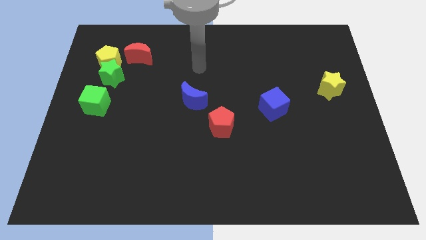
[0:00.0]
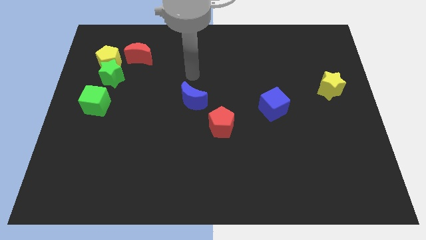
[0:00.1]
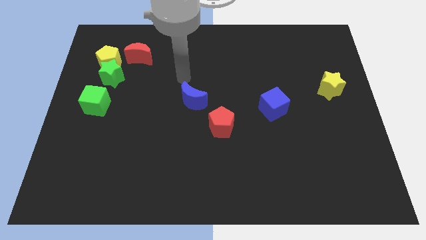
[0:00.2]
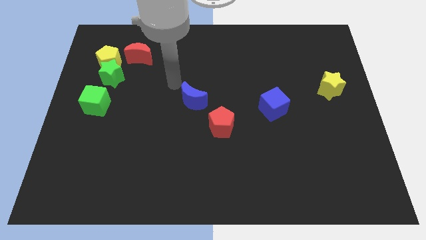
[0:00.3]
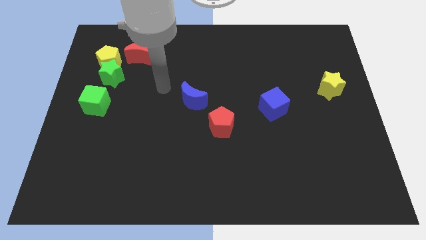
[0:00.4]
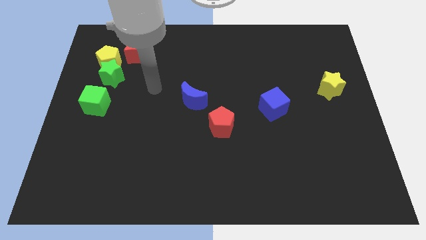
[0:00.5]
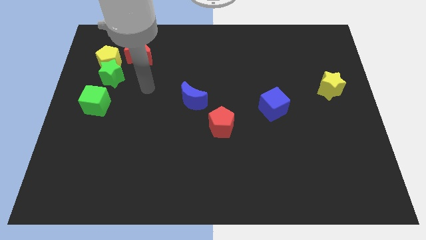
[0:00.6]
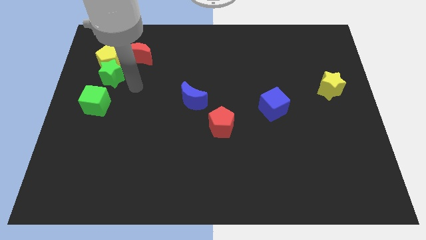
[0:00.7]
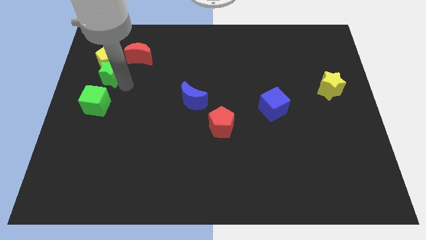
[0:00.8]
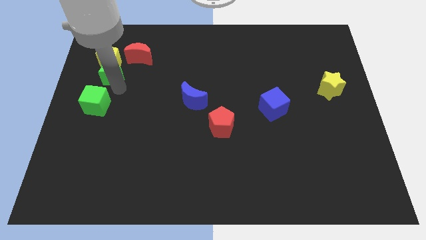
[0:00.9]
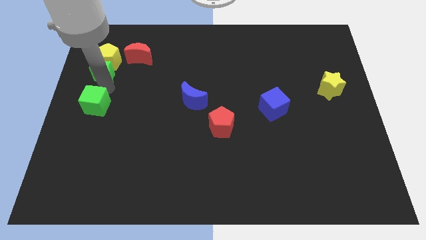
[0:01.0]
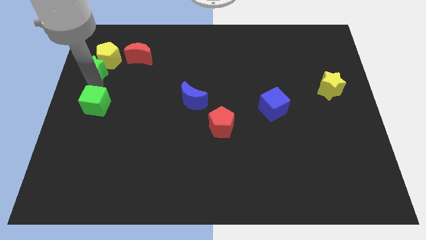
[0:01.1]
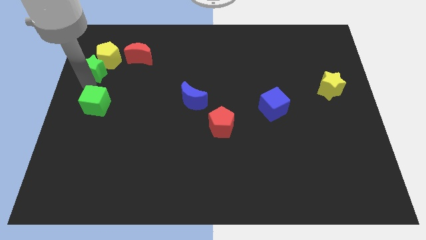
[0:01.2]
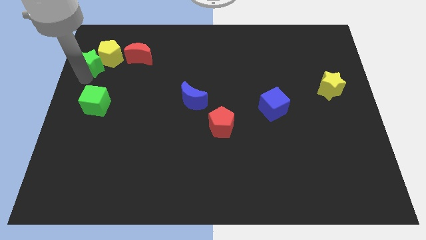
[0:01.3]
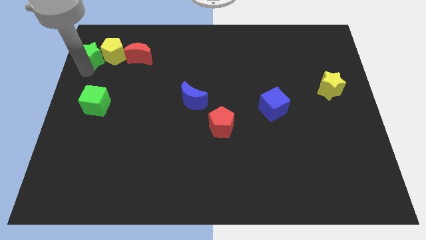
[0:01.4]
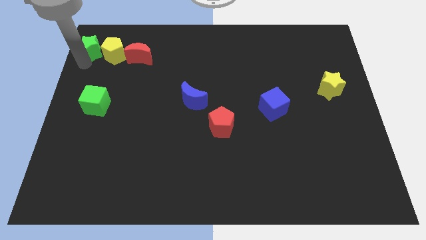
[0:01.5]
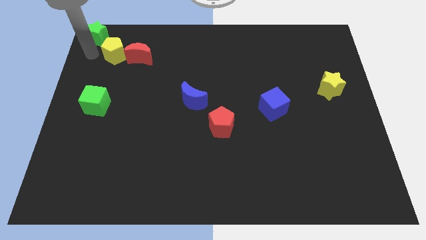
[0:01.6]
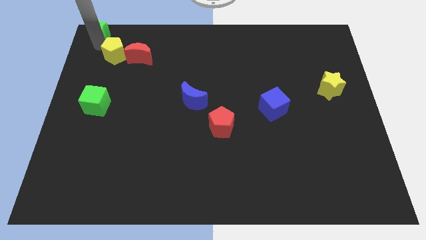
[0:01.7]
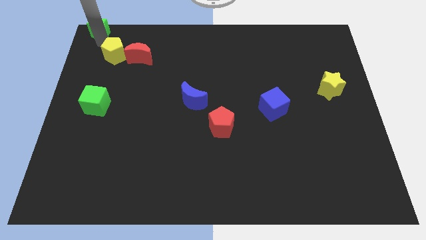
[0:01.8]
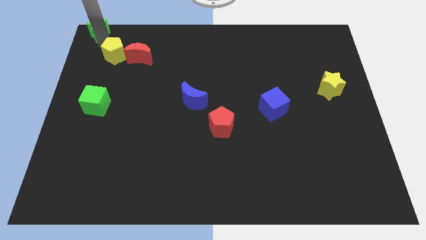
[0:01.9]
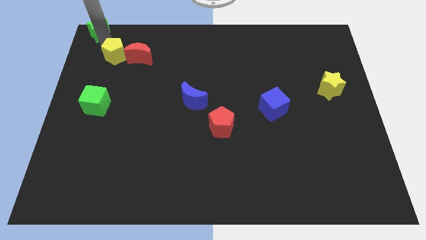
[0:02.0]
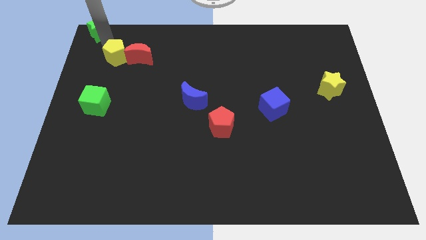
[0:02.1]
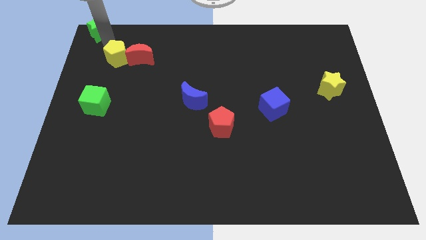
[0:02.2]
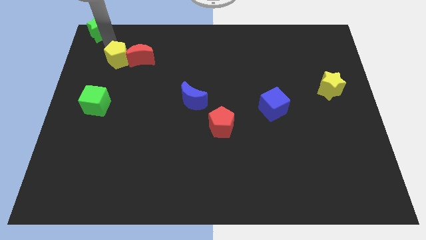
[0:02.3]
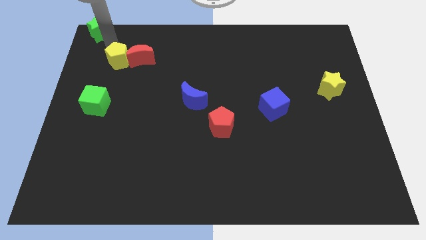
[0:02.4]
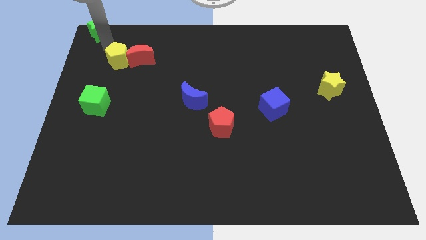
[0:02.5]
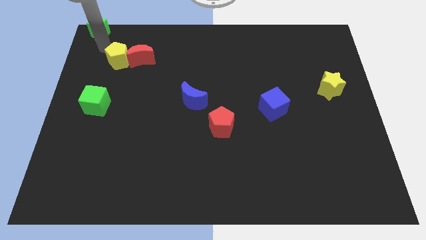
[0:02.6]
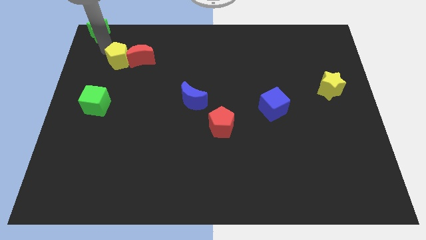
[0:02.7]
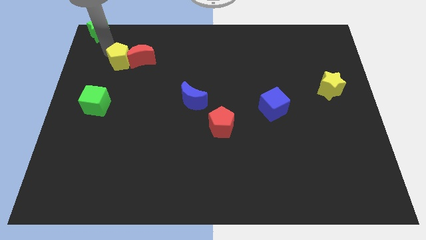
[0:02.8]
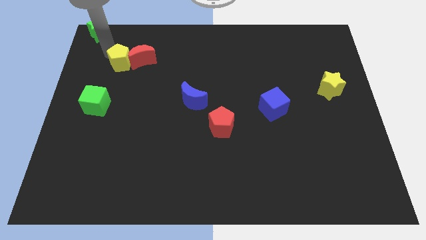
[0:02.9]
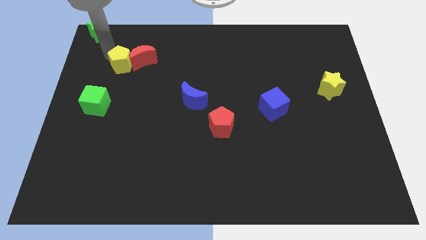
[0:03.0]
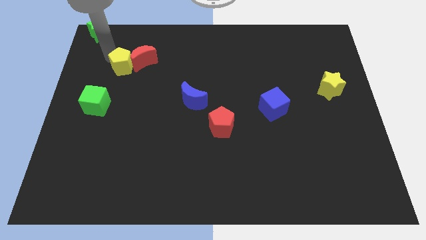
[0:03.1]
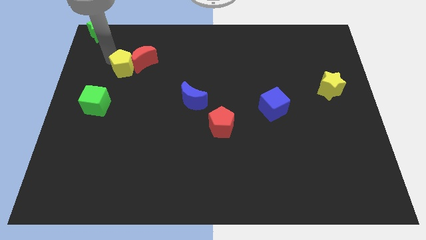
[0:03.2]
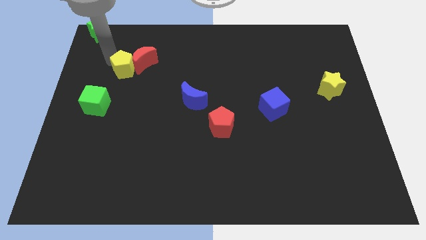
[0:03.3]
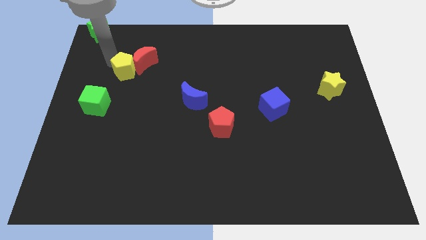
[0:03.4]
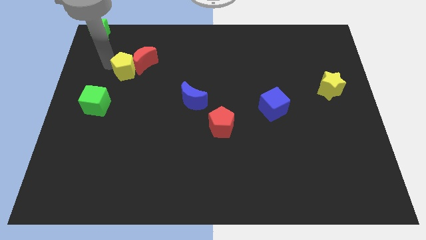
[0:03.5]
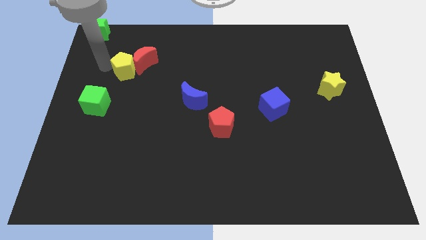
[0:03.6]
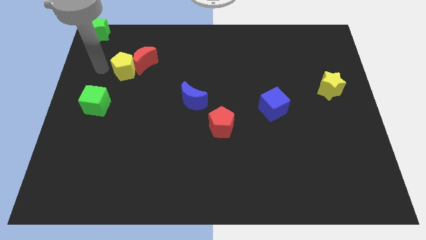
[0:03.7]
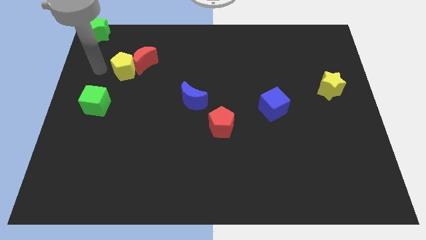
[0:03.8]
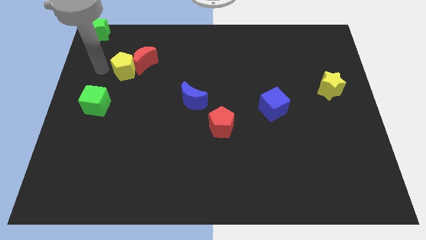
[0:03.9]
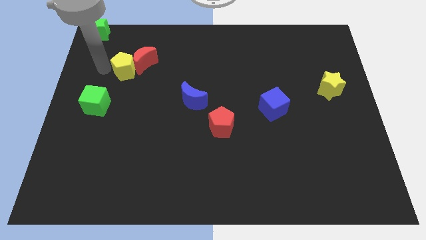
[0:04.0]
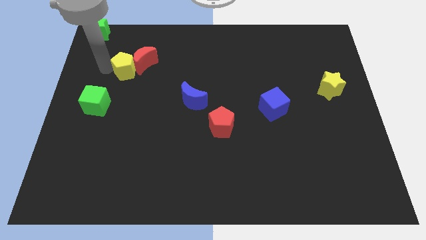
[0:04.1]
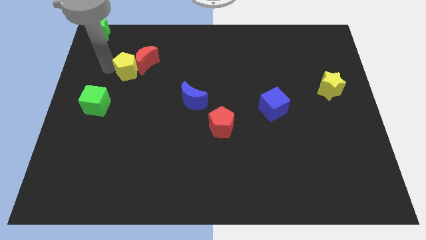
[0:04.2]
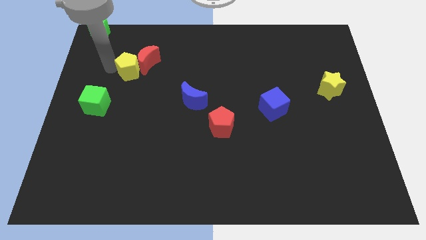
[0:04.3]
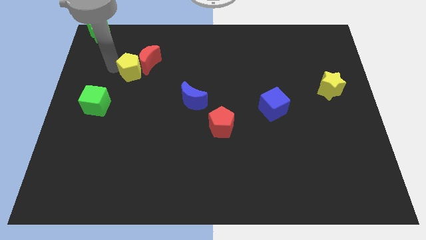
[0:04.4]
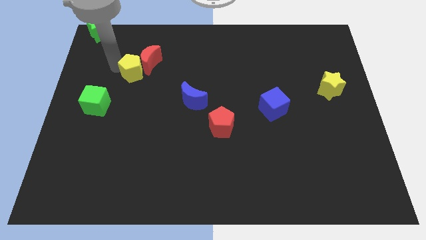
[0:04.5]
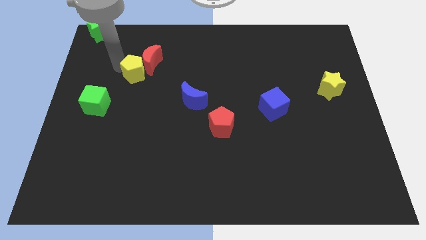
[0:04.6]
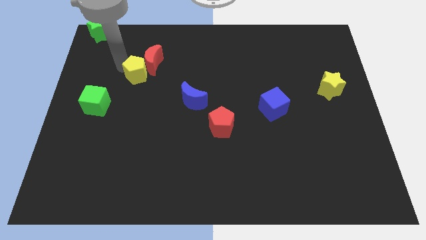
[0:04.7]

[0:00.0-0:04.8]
push the yellow pentagon to the right a little

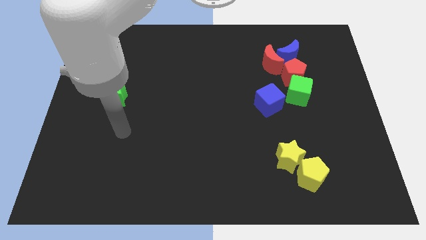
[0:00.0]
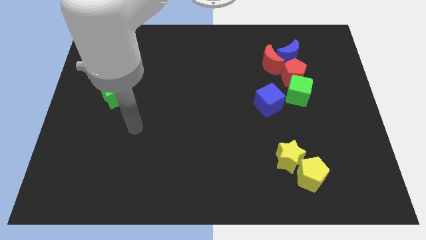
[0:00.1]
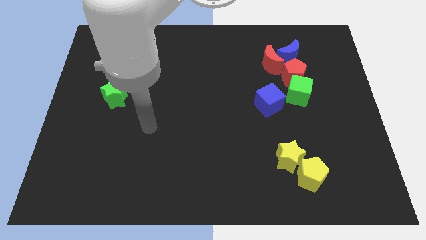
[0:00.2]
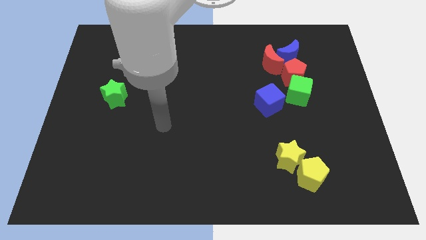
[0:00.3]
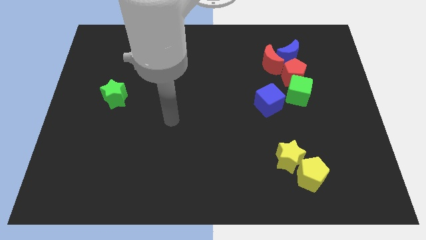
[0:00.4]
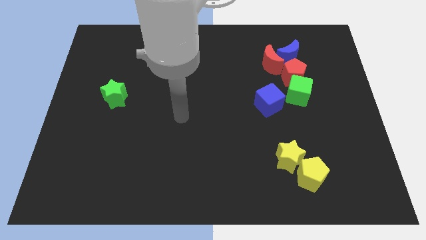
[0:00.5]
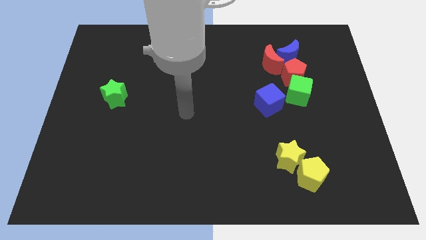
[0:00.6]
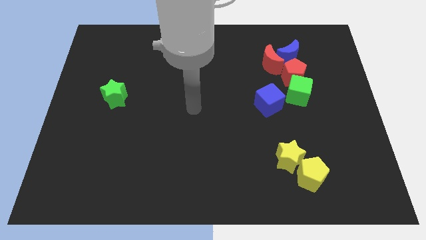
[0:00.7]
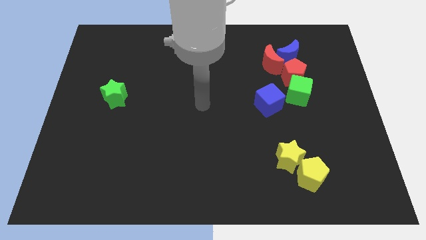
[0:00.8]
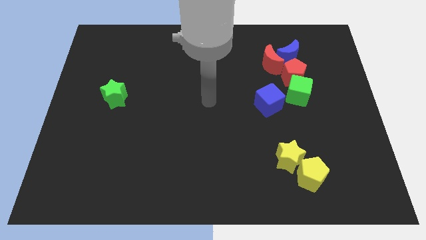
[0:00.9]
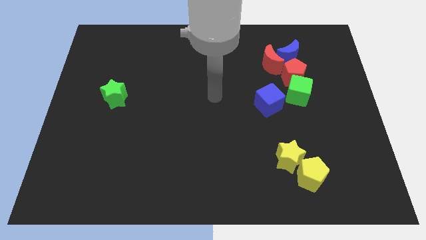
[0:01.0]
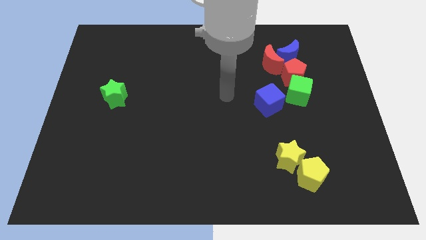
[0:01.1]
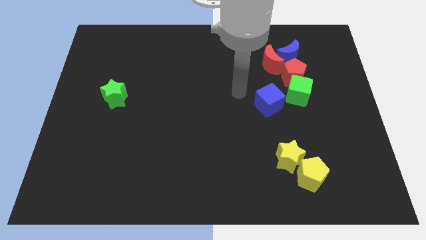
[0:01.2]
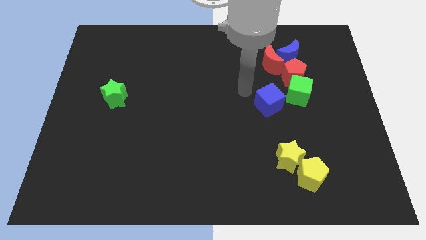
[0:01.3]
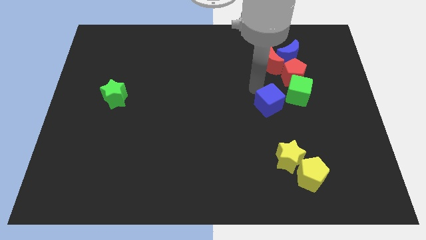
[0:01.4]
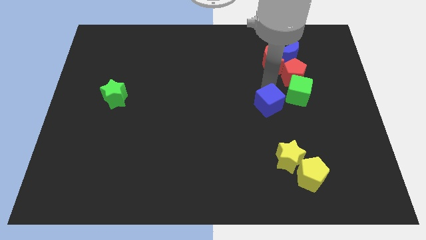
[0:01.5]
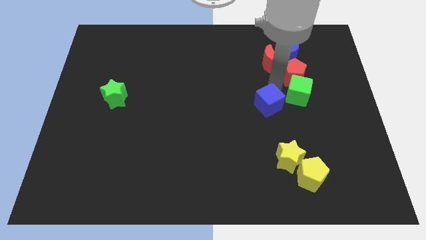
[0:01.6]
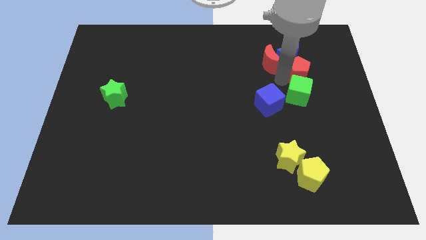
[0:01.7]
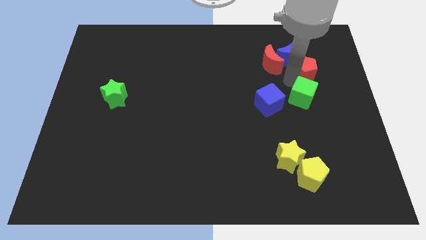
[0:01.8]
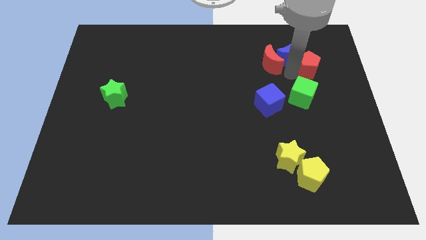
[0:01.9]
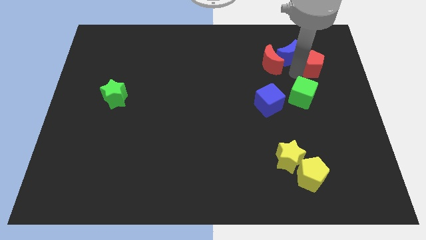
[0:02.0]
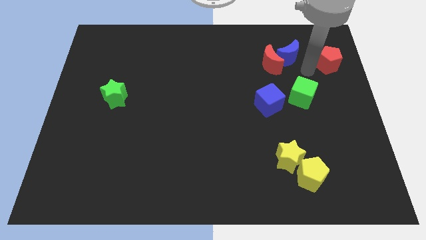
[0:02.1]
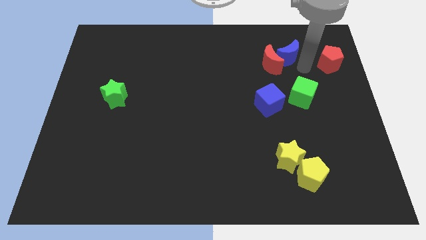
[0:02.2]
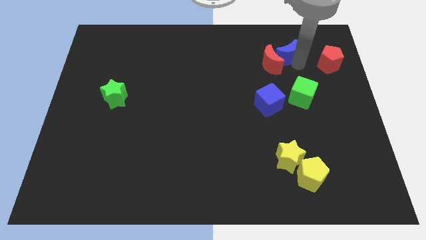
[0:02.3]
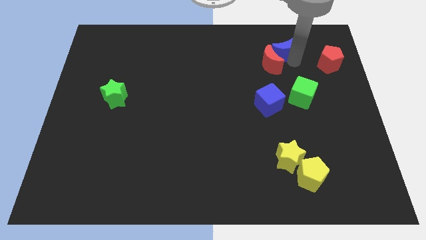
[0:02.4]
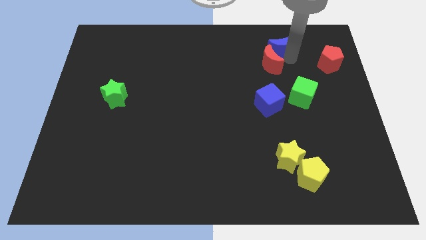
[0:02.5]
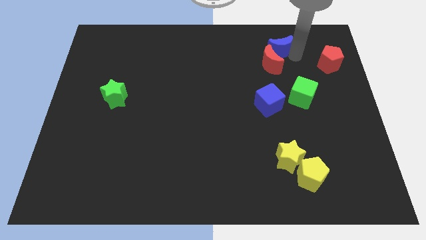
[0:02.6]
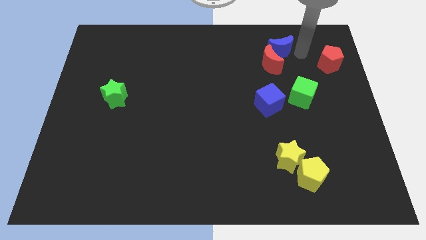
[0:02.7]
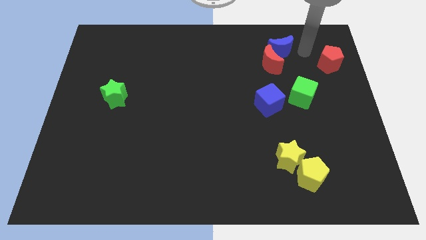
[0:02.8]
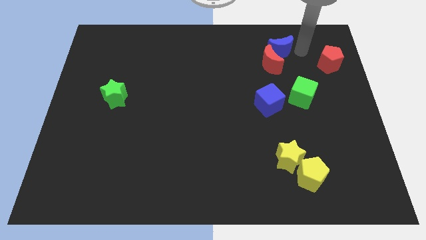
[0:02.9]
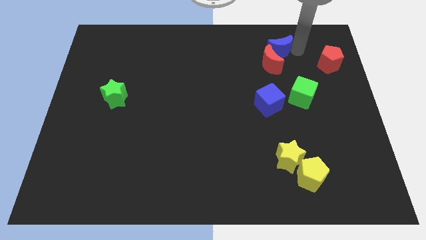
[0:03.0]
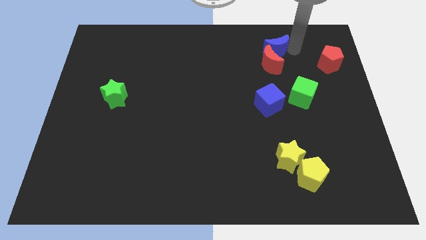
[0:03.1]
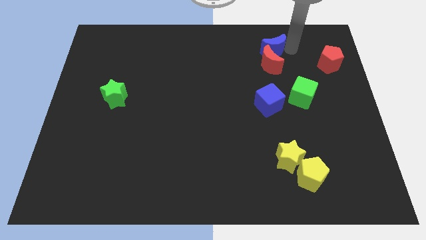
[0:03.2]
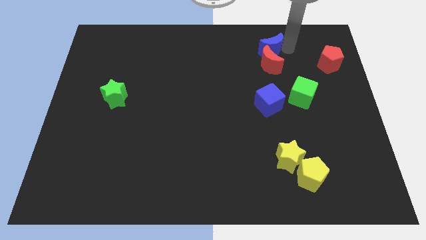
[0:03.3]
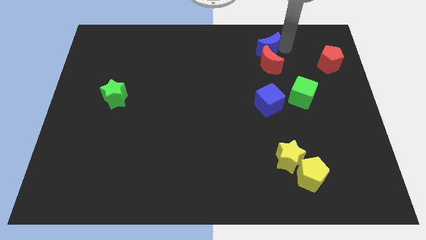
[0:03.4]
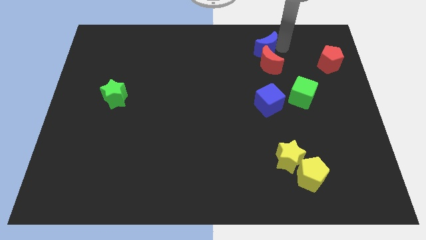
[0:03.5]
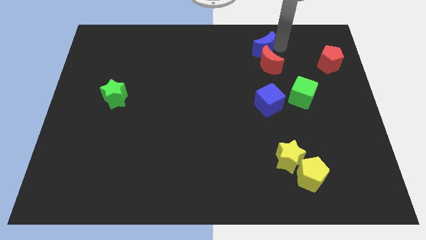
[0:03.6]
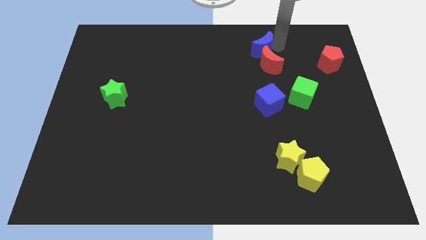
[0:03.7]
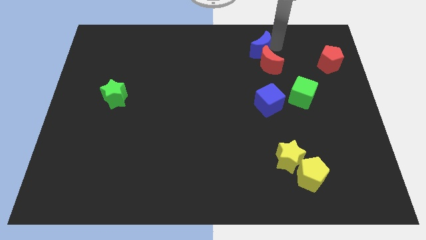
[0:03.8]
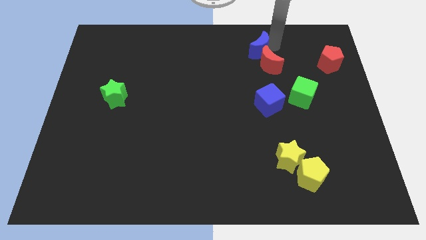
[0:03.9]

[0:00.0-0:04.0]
move the blue moon a little to the left
